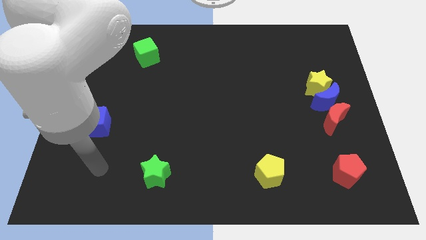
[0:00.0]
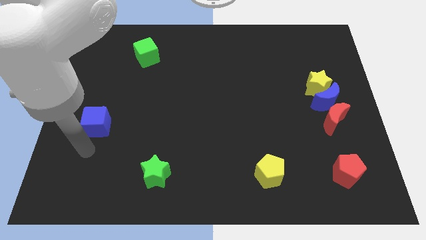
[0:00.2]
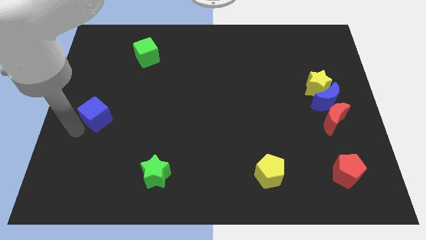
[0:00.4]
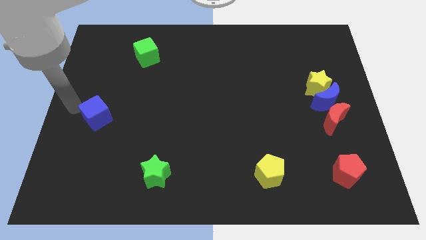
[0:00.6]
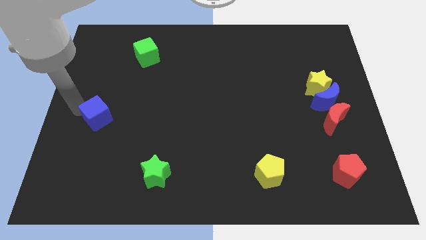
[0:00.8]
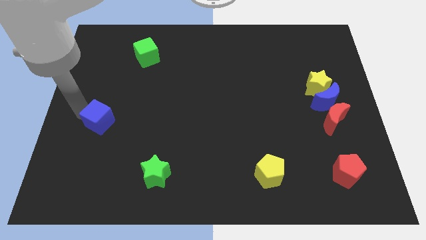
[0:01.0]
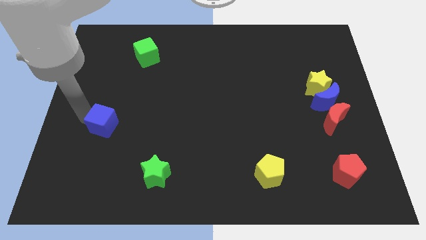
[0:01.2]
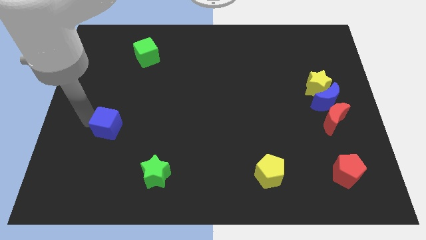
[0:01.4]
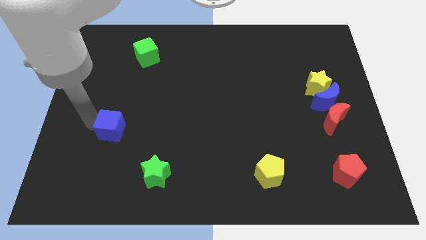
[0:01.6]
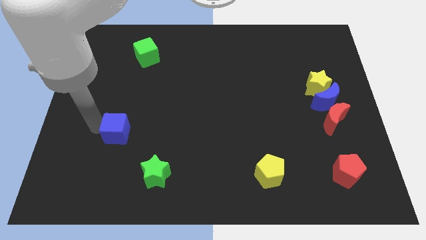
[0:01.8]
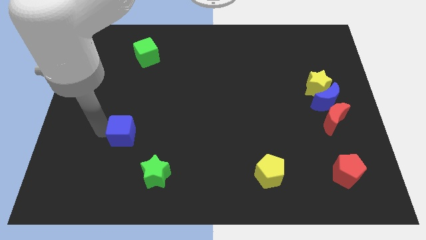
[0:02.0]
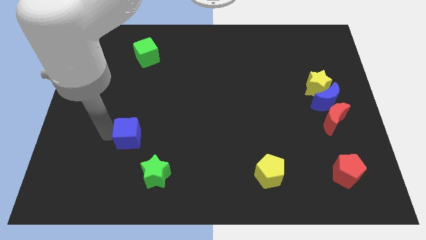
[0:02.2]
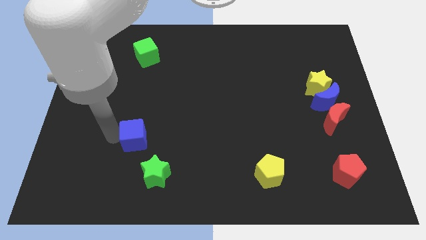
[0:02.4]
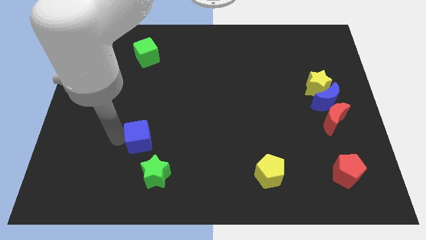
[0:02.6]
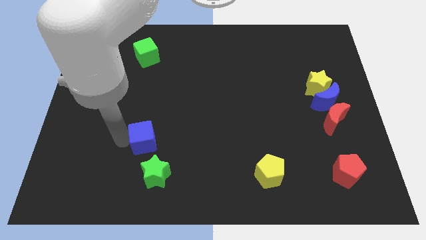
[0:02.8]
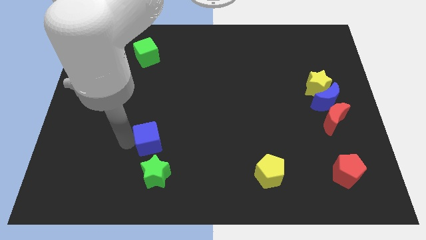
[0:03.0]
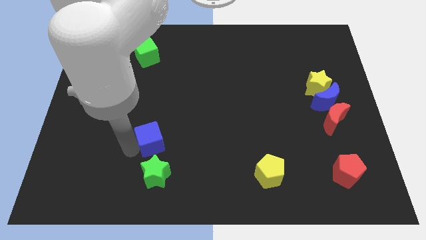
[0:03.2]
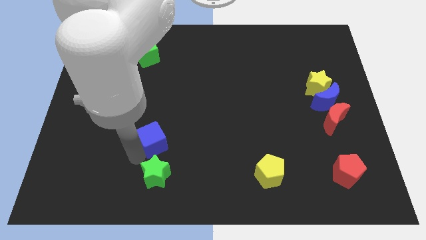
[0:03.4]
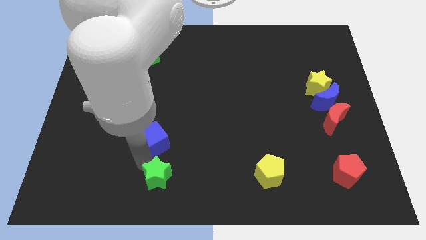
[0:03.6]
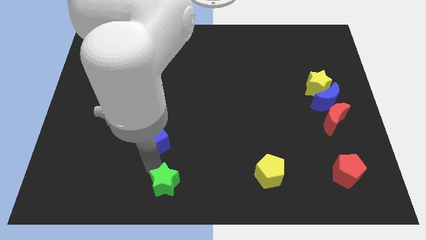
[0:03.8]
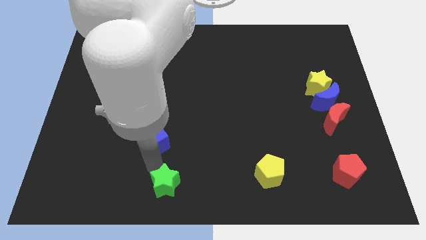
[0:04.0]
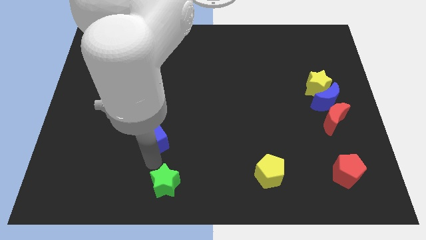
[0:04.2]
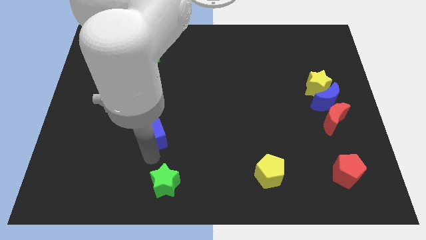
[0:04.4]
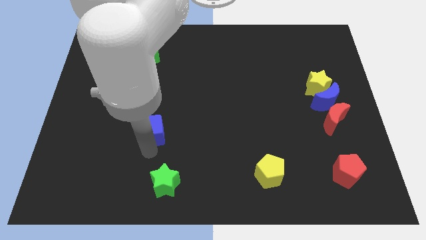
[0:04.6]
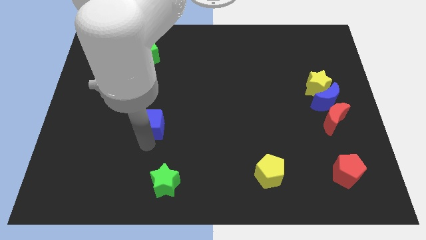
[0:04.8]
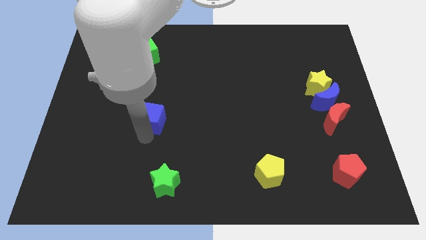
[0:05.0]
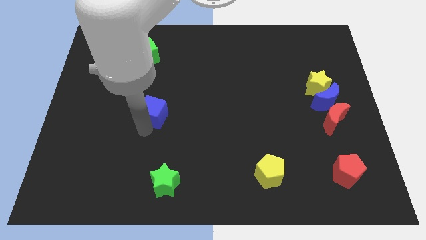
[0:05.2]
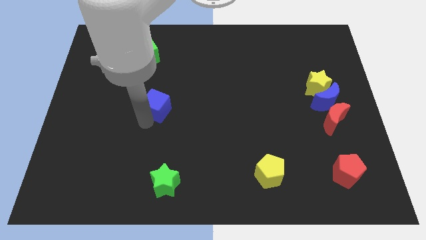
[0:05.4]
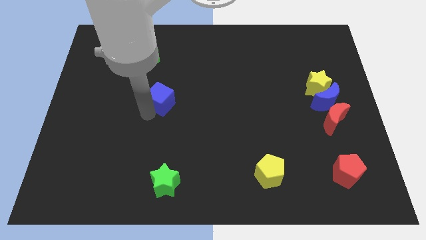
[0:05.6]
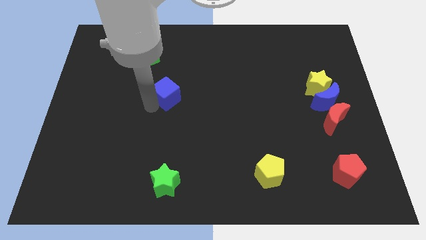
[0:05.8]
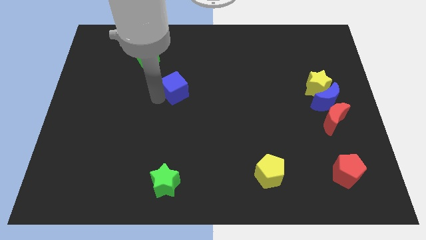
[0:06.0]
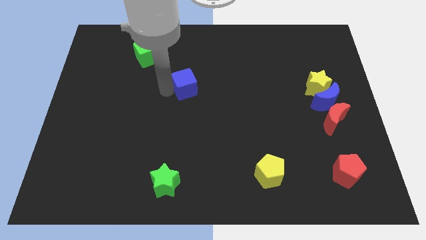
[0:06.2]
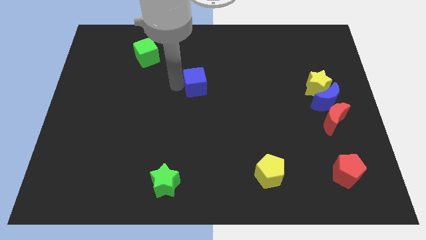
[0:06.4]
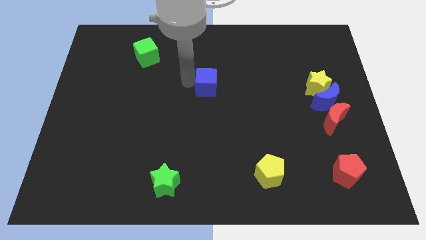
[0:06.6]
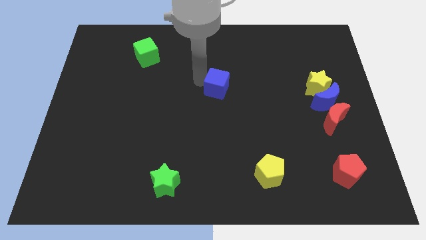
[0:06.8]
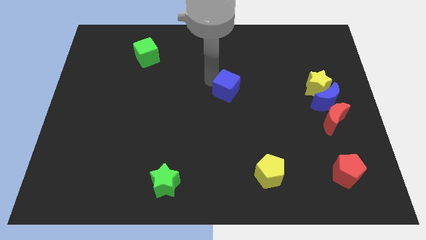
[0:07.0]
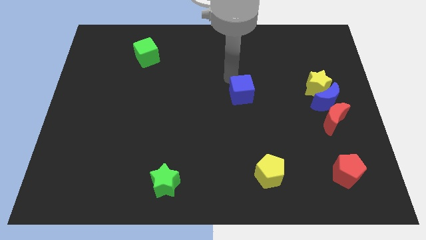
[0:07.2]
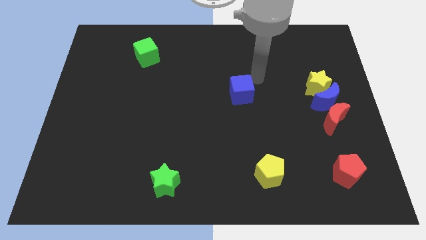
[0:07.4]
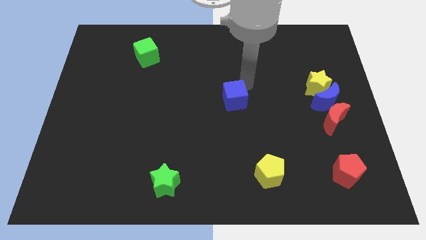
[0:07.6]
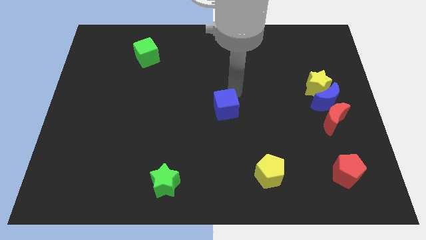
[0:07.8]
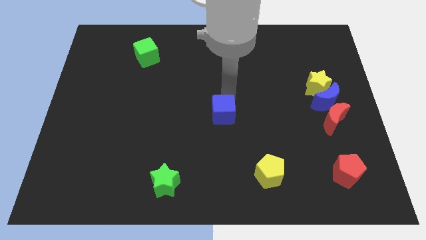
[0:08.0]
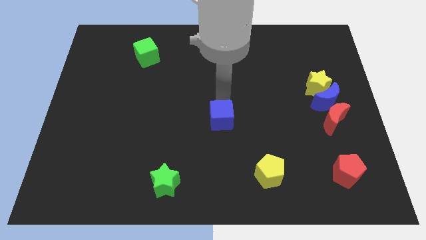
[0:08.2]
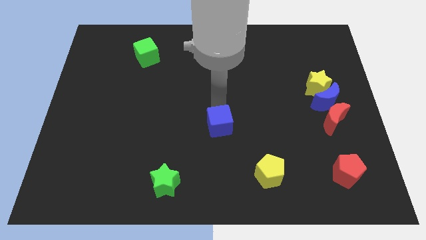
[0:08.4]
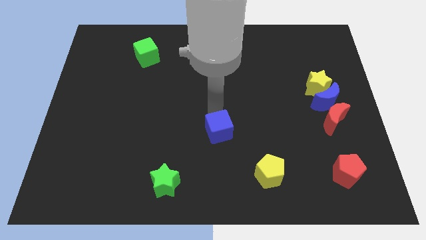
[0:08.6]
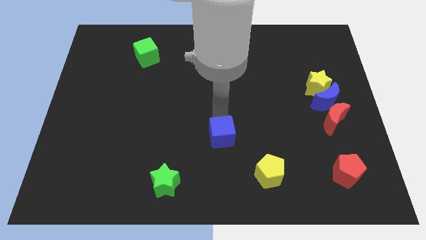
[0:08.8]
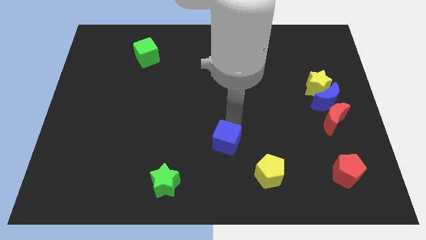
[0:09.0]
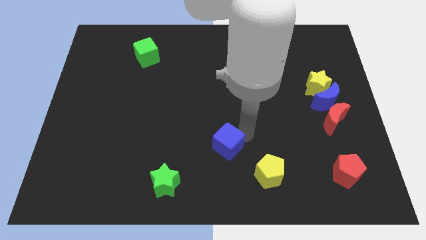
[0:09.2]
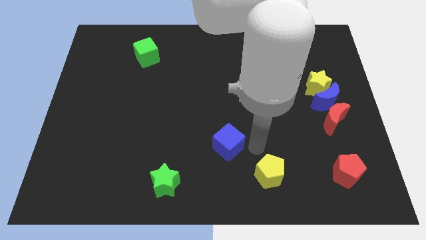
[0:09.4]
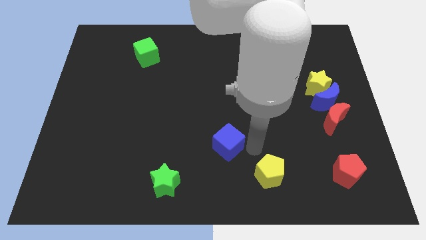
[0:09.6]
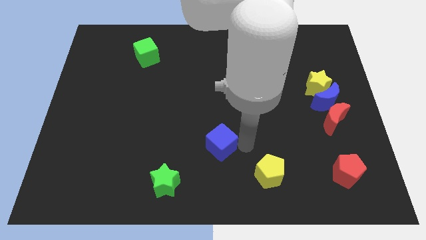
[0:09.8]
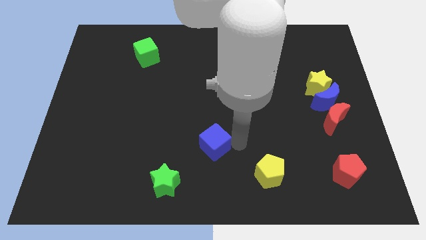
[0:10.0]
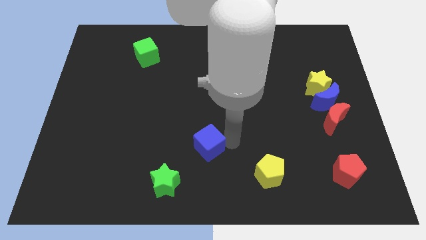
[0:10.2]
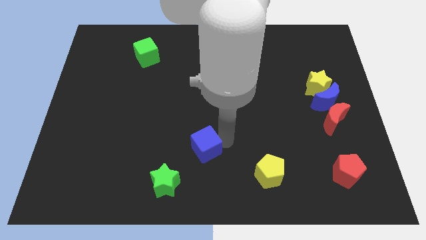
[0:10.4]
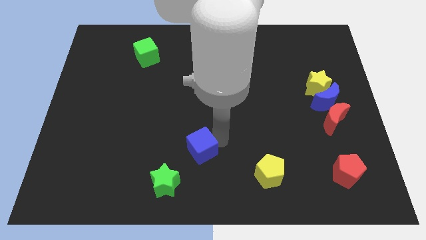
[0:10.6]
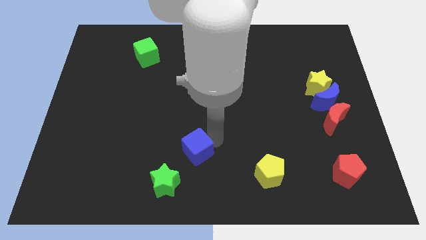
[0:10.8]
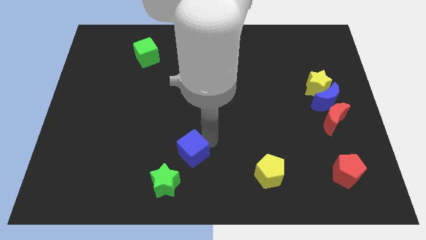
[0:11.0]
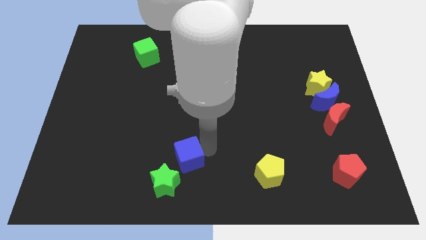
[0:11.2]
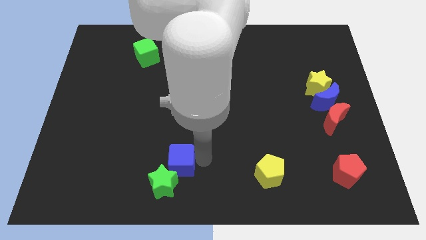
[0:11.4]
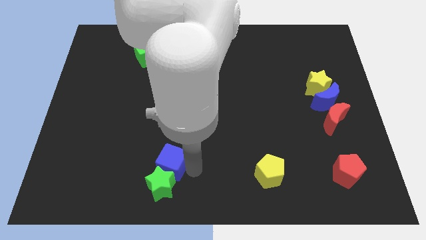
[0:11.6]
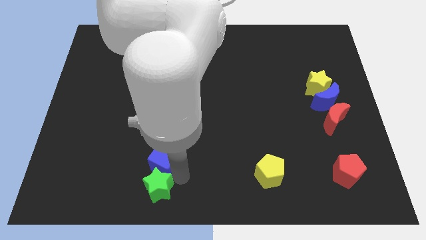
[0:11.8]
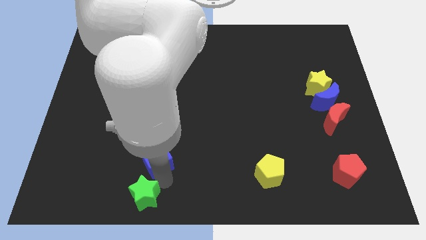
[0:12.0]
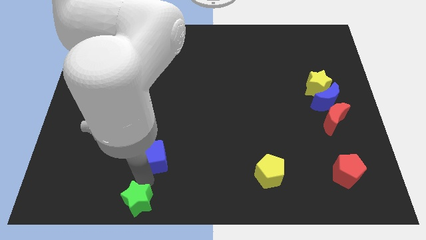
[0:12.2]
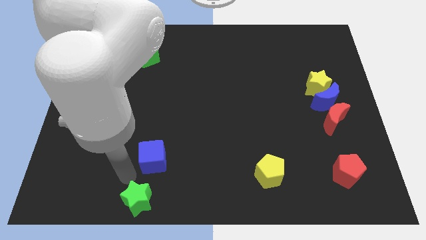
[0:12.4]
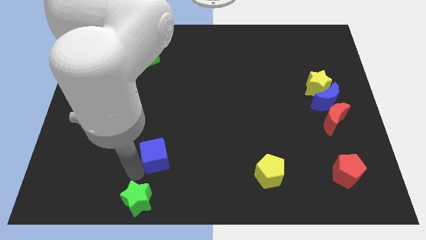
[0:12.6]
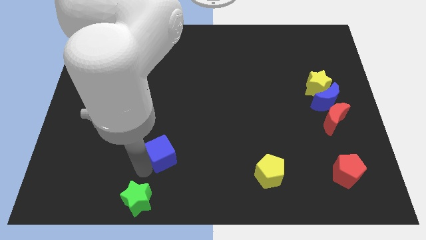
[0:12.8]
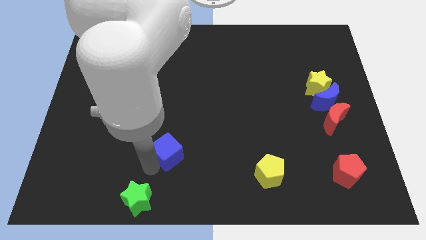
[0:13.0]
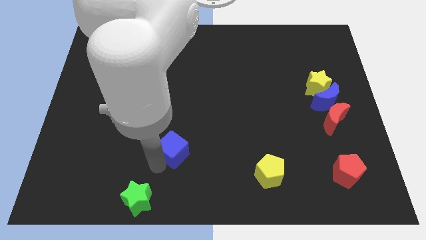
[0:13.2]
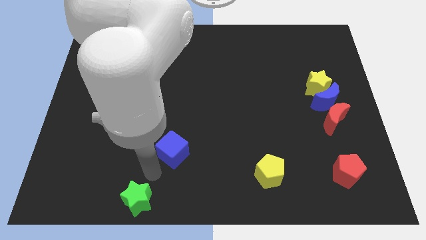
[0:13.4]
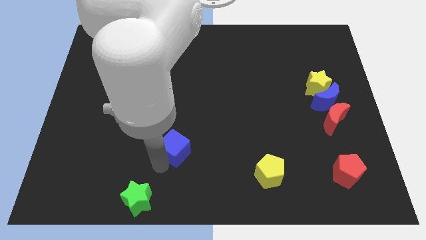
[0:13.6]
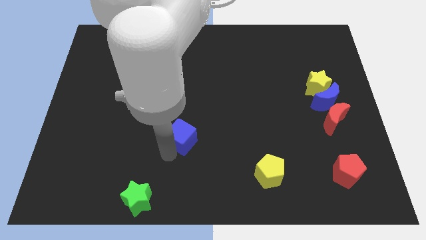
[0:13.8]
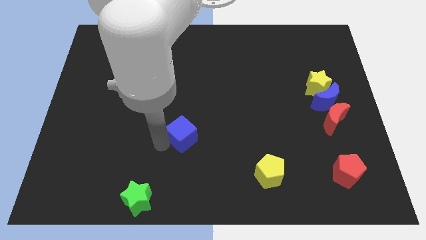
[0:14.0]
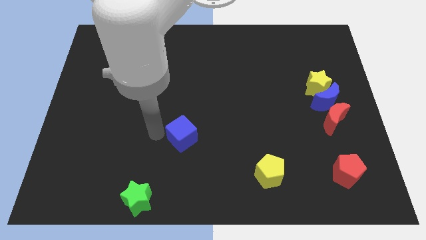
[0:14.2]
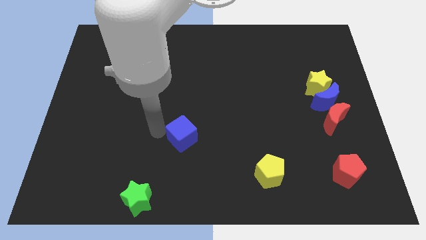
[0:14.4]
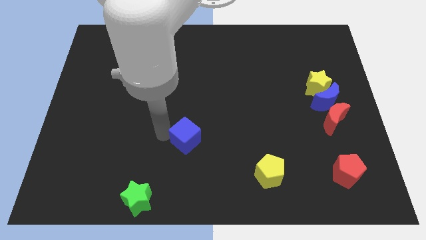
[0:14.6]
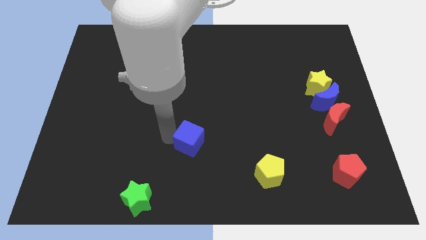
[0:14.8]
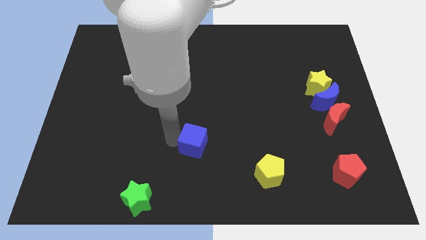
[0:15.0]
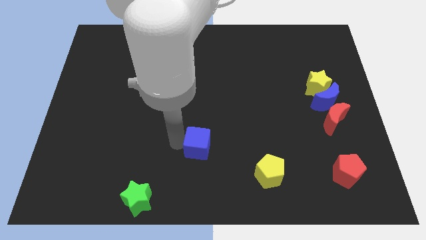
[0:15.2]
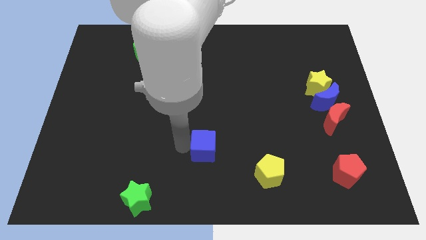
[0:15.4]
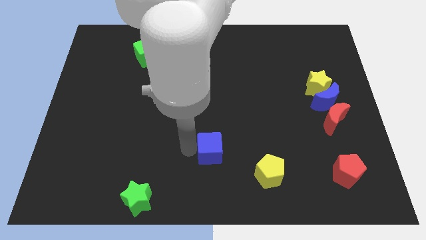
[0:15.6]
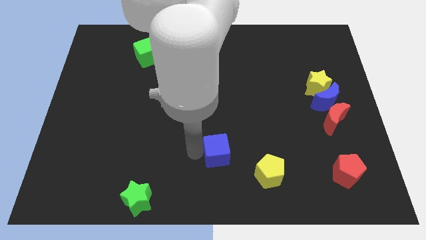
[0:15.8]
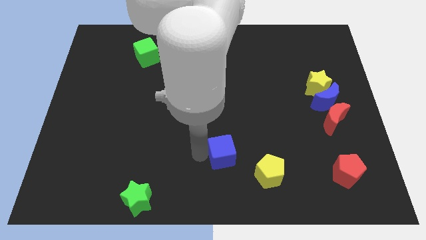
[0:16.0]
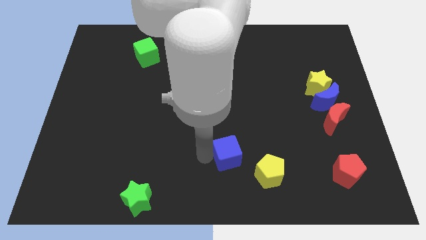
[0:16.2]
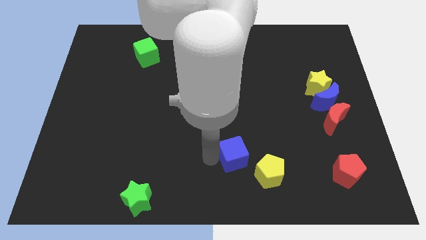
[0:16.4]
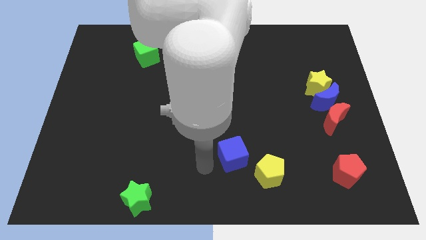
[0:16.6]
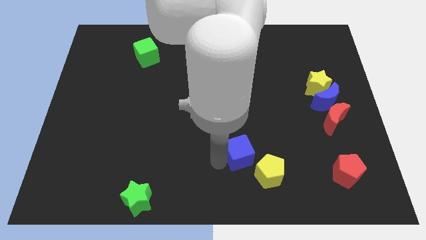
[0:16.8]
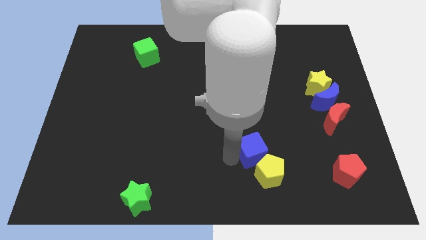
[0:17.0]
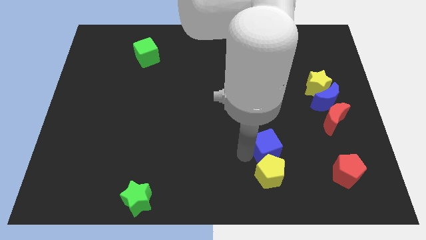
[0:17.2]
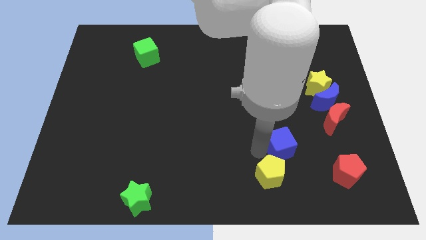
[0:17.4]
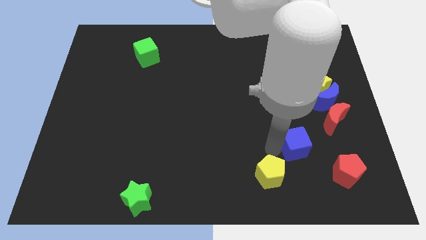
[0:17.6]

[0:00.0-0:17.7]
slide the blue cube to the bottom left side of the red moon
